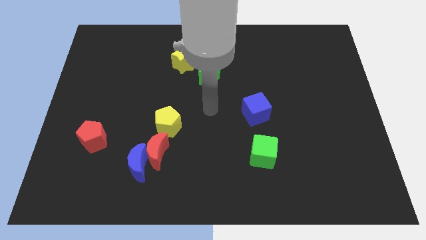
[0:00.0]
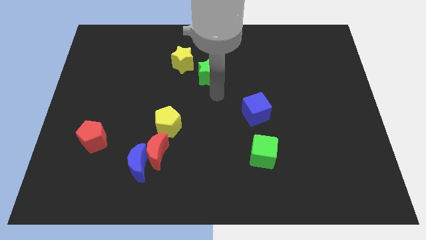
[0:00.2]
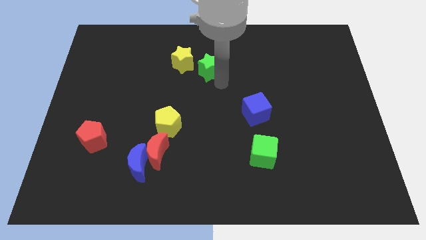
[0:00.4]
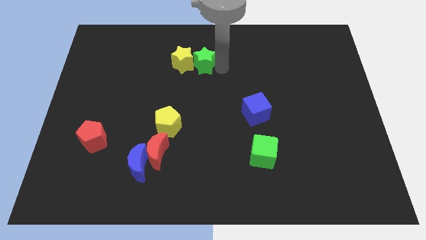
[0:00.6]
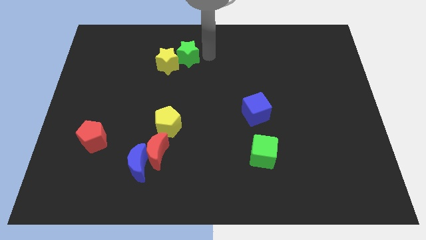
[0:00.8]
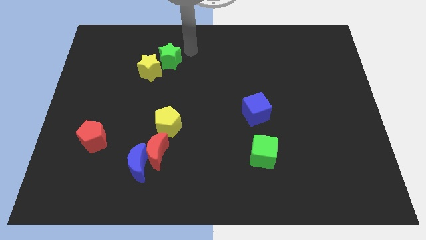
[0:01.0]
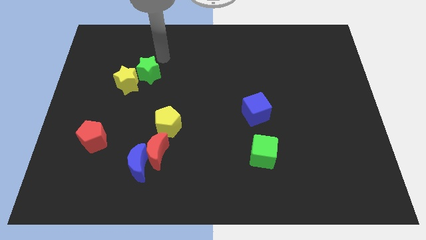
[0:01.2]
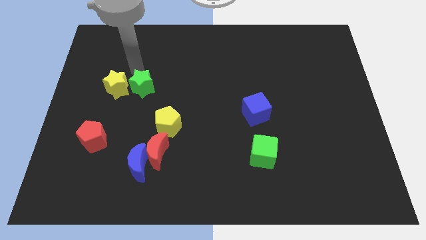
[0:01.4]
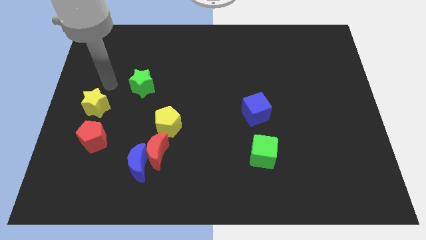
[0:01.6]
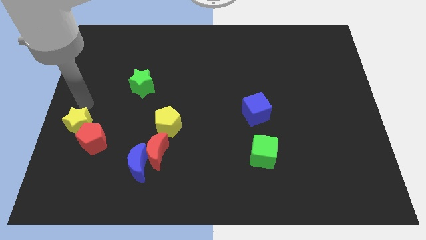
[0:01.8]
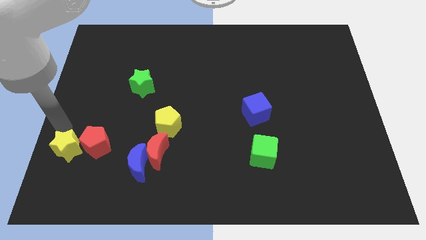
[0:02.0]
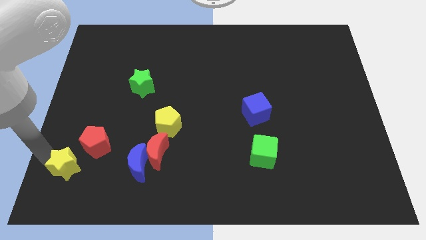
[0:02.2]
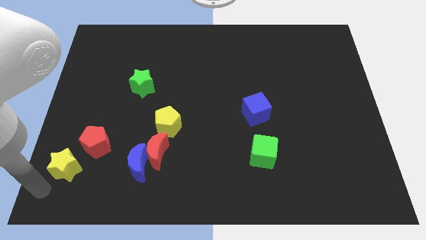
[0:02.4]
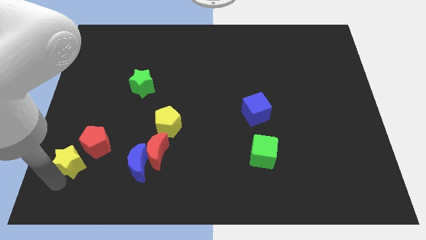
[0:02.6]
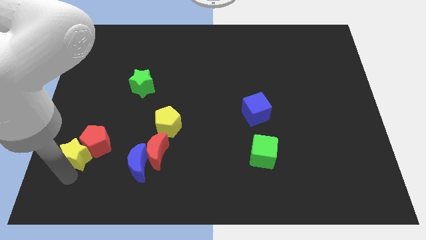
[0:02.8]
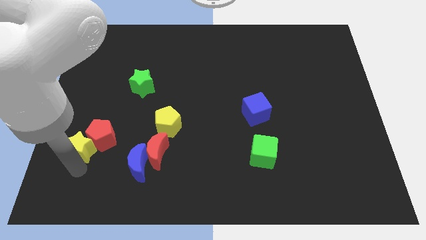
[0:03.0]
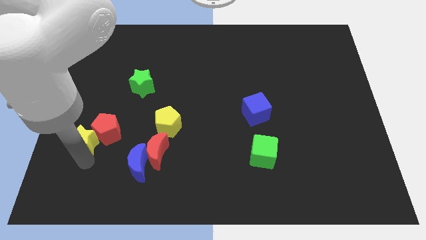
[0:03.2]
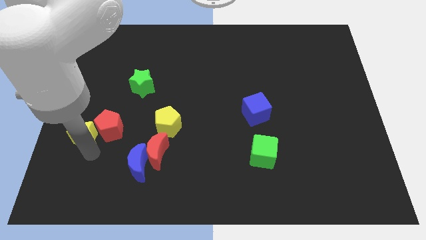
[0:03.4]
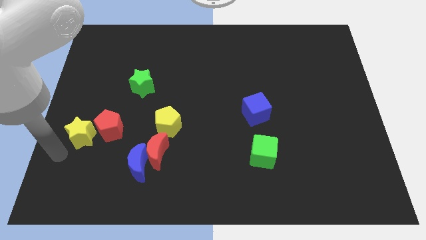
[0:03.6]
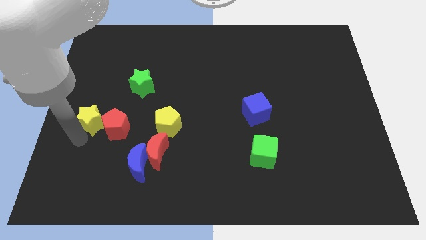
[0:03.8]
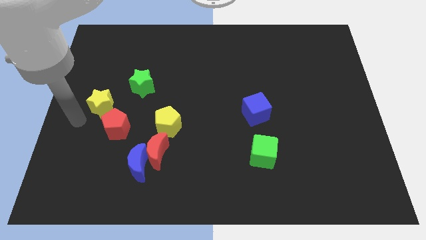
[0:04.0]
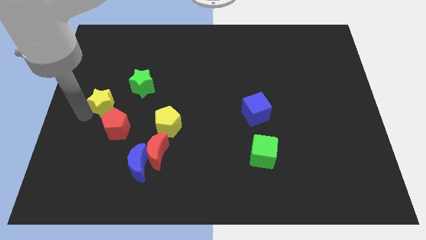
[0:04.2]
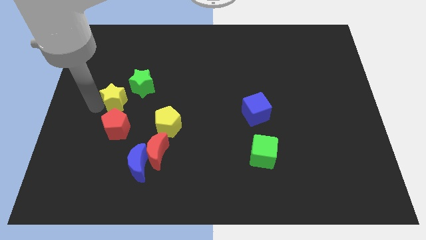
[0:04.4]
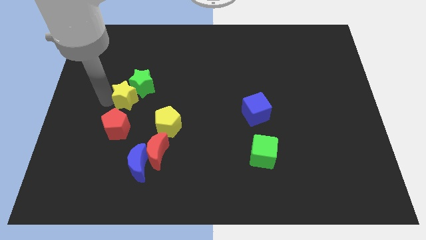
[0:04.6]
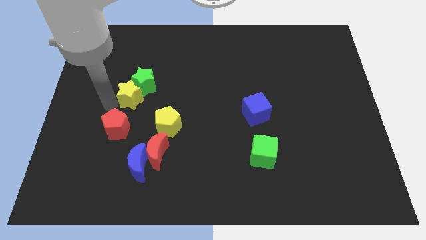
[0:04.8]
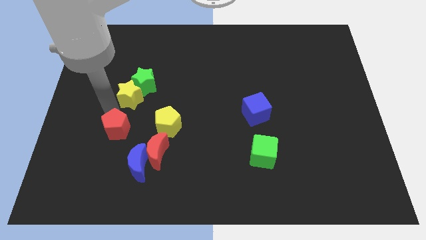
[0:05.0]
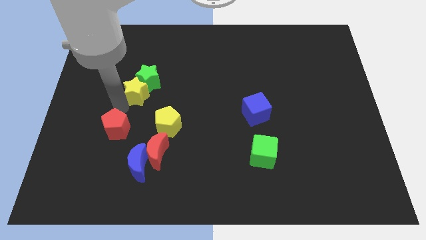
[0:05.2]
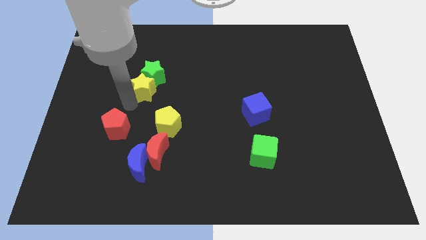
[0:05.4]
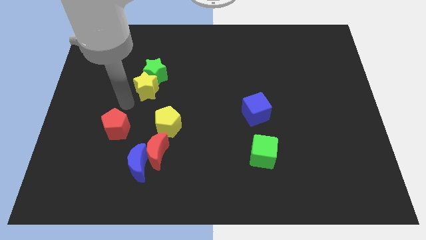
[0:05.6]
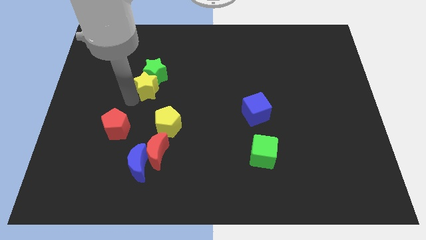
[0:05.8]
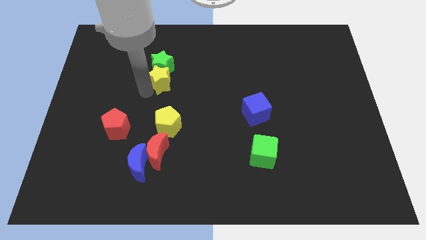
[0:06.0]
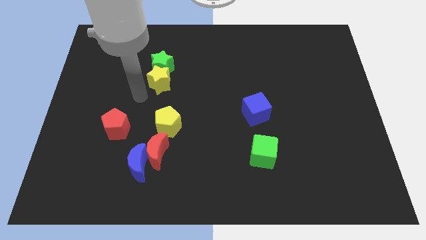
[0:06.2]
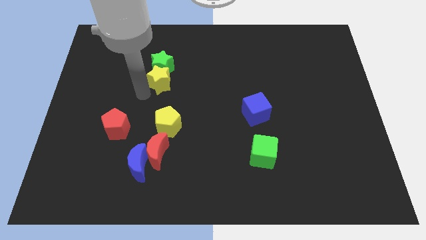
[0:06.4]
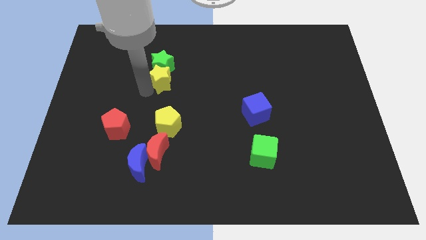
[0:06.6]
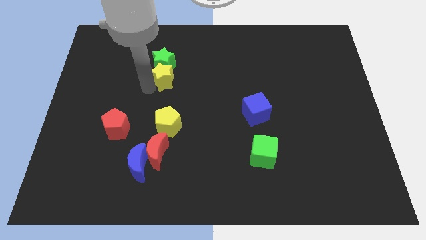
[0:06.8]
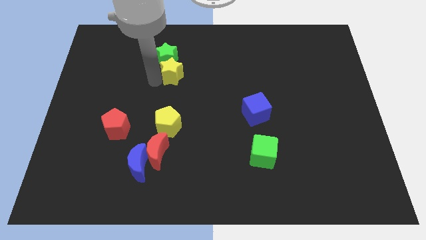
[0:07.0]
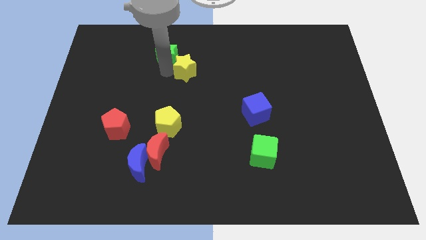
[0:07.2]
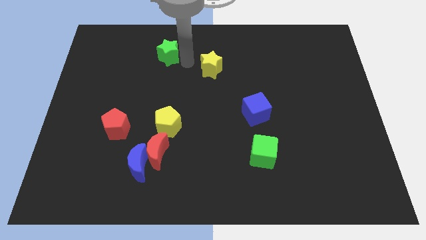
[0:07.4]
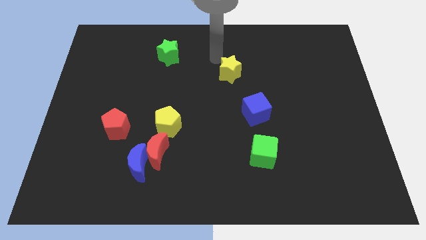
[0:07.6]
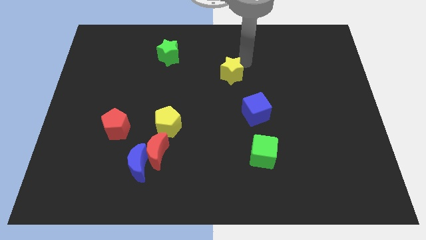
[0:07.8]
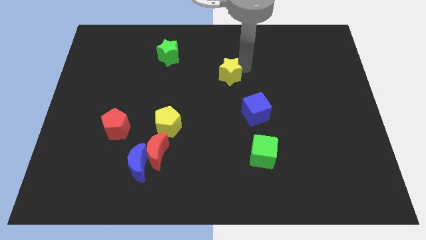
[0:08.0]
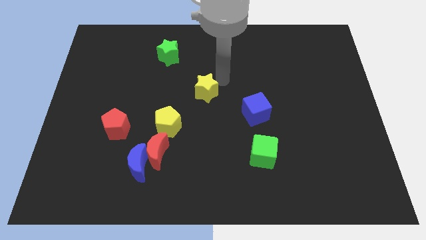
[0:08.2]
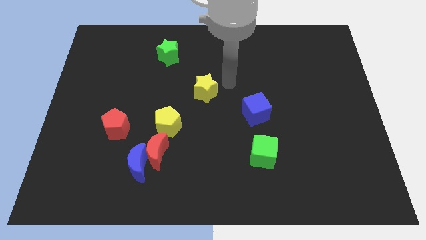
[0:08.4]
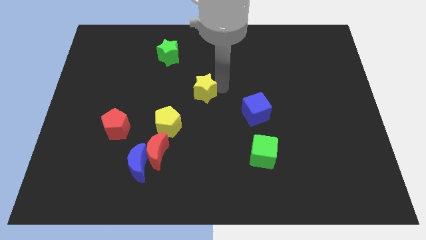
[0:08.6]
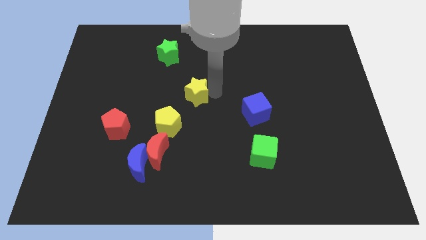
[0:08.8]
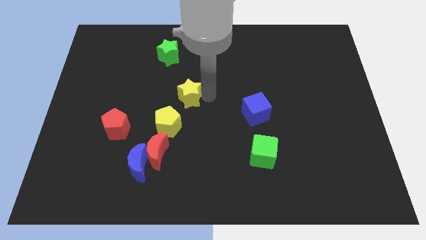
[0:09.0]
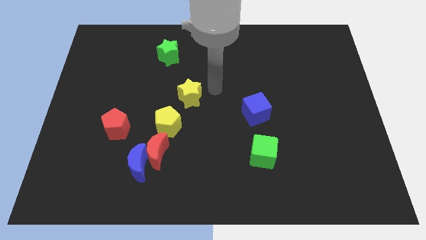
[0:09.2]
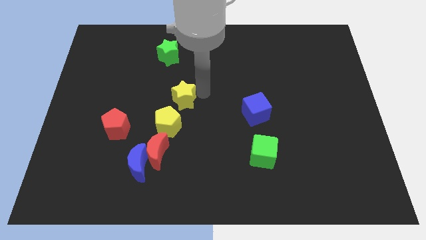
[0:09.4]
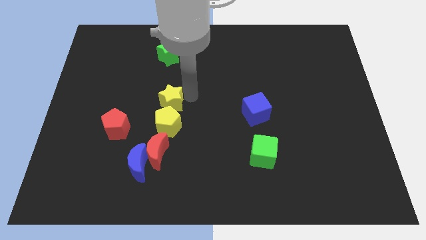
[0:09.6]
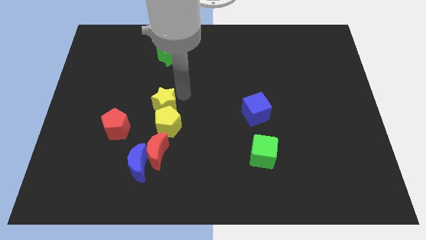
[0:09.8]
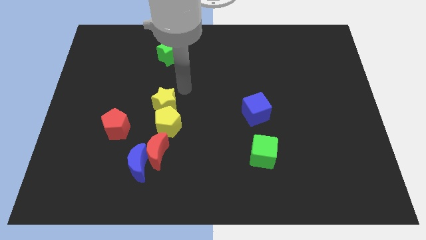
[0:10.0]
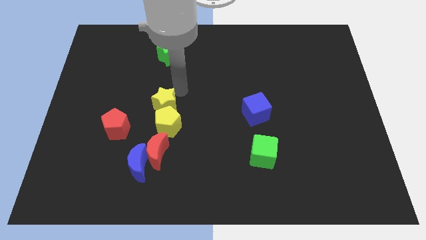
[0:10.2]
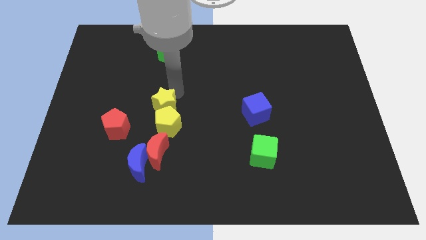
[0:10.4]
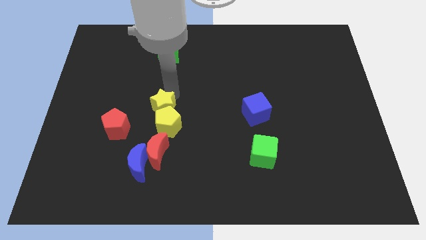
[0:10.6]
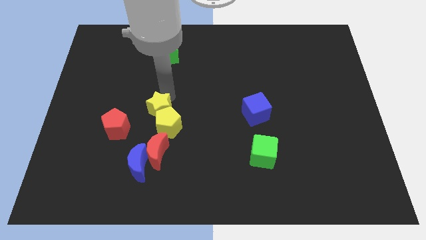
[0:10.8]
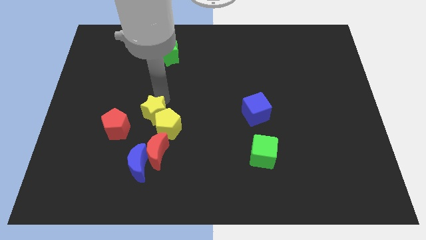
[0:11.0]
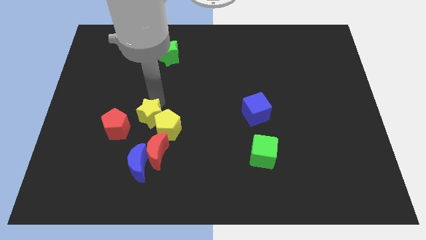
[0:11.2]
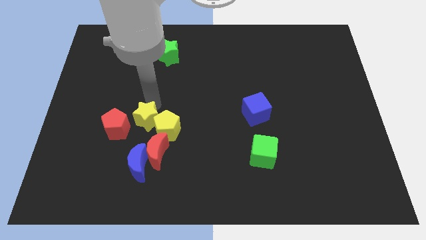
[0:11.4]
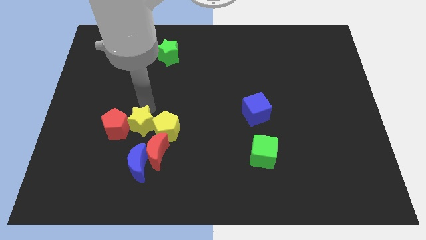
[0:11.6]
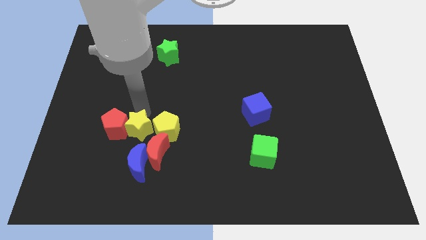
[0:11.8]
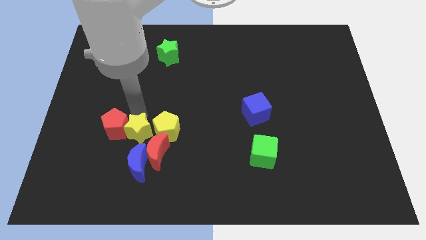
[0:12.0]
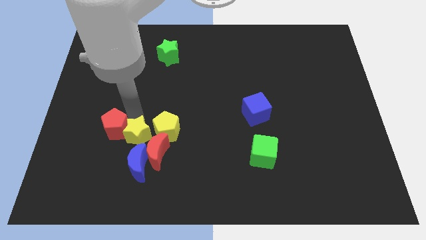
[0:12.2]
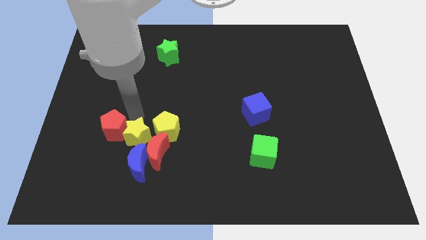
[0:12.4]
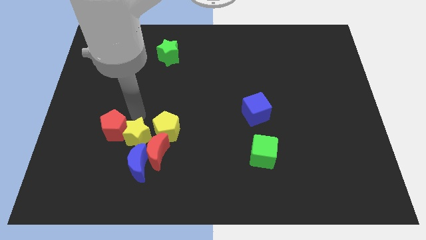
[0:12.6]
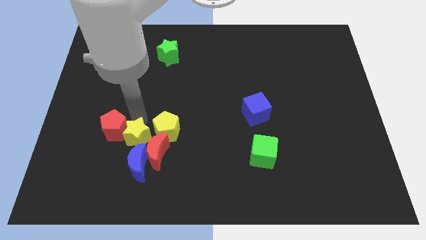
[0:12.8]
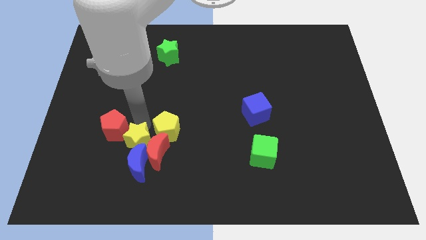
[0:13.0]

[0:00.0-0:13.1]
push the yellow star next to the blue moon
